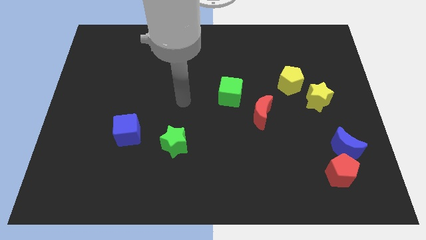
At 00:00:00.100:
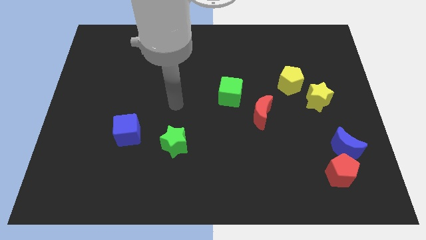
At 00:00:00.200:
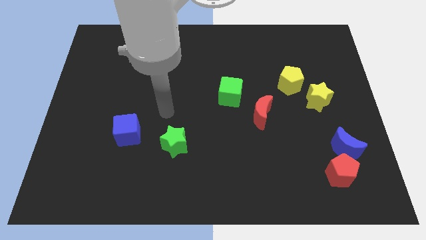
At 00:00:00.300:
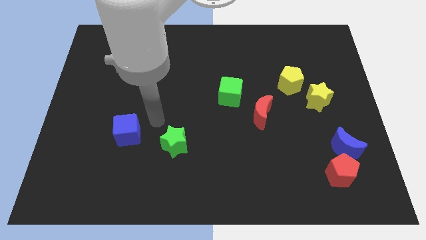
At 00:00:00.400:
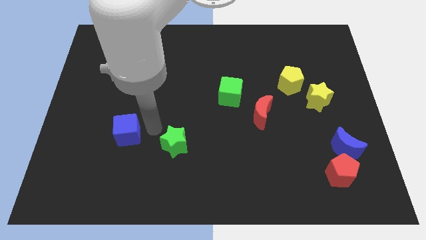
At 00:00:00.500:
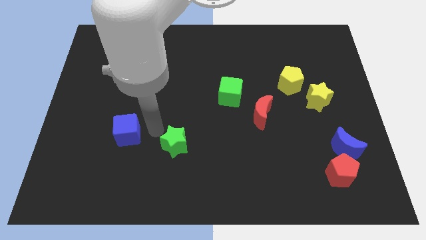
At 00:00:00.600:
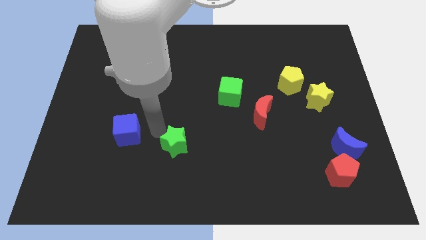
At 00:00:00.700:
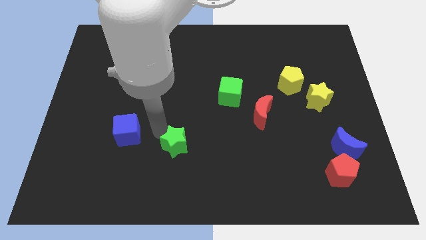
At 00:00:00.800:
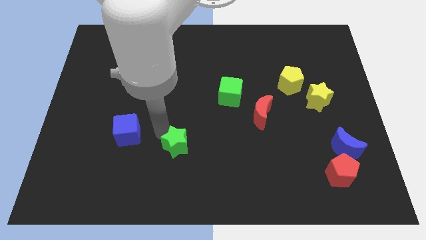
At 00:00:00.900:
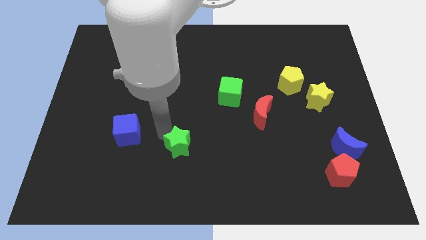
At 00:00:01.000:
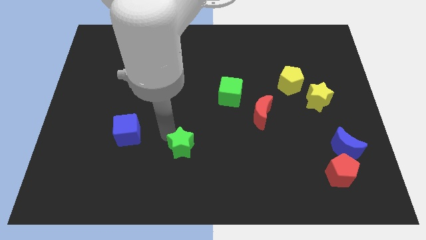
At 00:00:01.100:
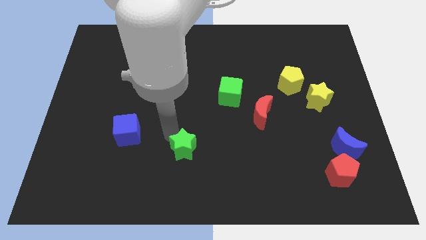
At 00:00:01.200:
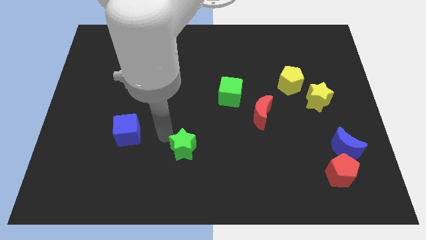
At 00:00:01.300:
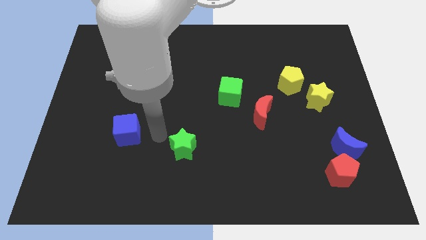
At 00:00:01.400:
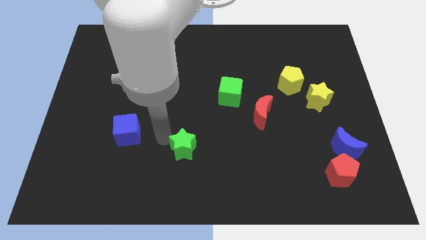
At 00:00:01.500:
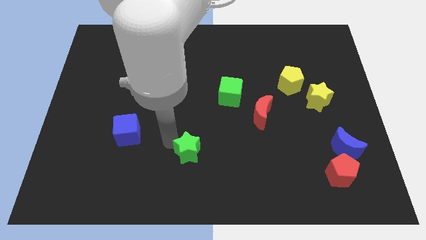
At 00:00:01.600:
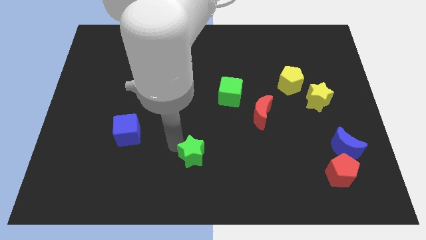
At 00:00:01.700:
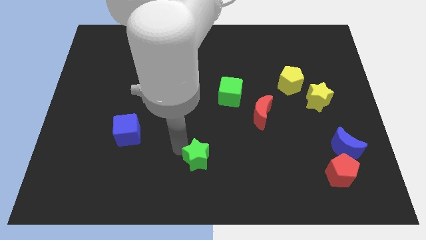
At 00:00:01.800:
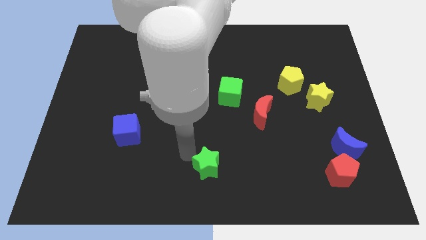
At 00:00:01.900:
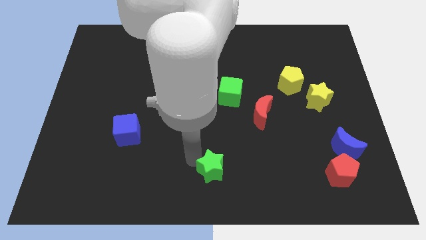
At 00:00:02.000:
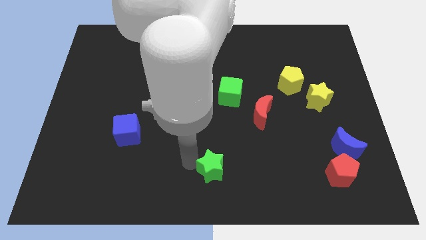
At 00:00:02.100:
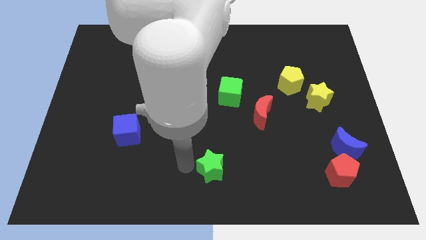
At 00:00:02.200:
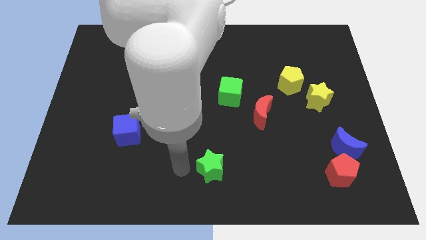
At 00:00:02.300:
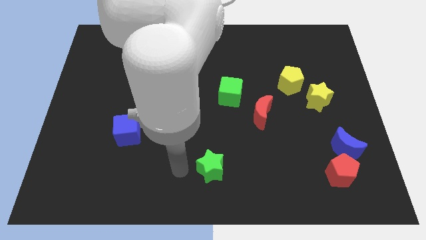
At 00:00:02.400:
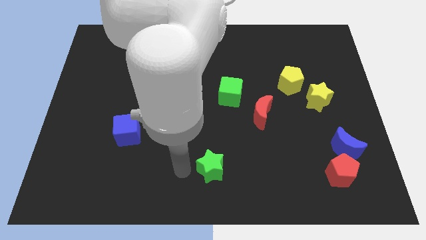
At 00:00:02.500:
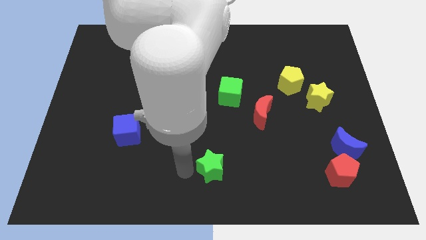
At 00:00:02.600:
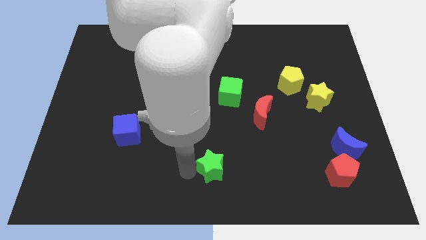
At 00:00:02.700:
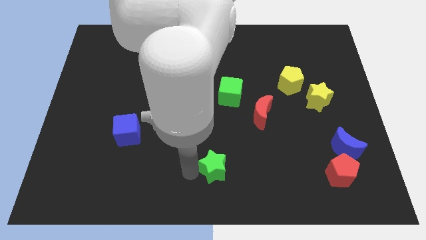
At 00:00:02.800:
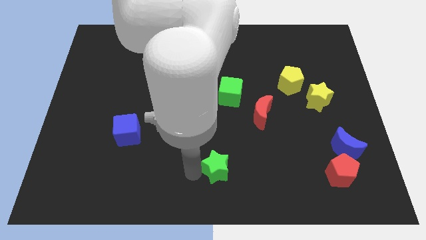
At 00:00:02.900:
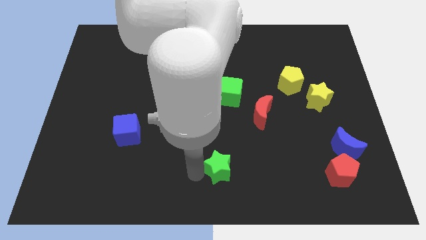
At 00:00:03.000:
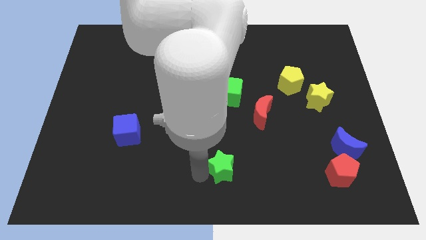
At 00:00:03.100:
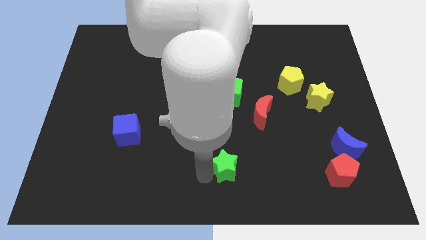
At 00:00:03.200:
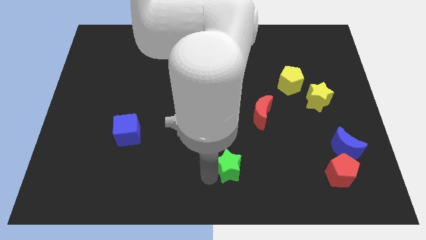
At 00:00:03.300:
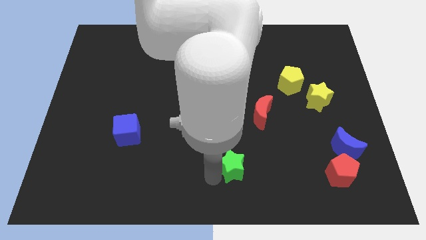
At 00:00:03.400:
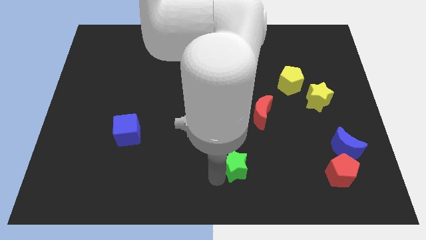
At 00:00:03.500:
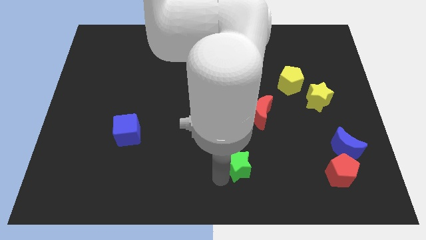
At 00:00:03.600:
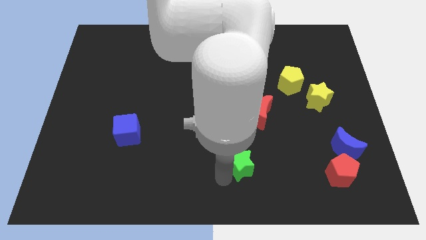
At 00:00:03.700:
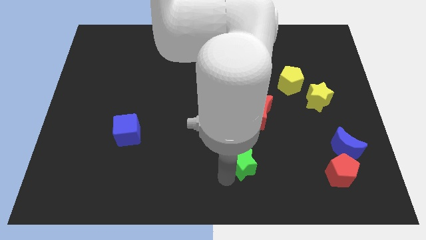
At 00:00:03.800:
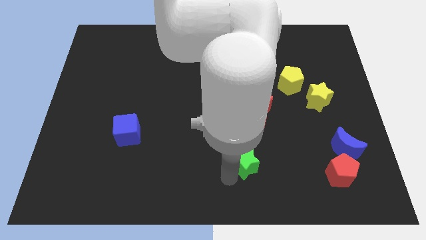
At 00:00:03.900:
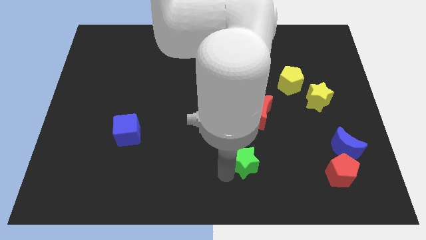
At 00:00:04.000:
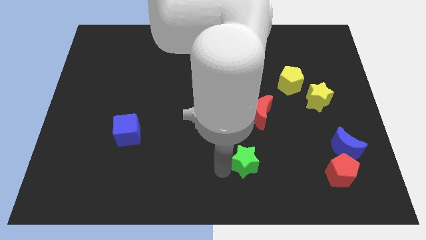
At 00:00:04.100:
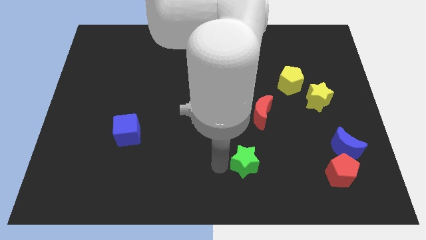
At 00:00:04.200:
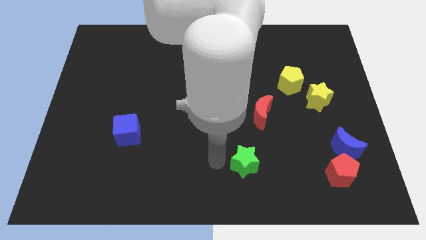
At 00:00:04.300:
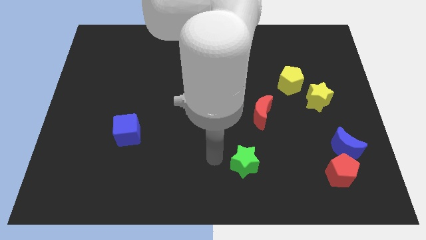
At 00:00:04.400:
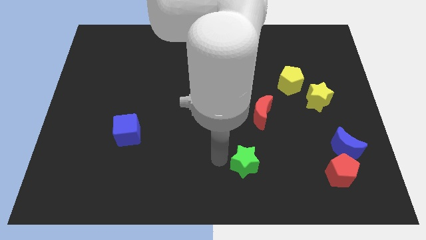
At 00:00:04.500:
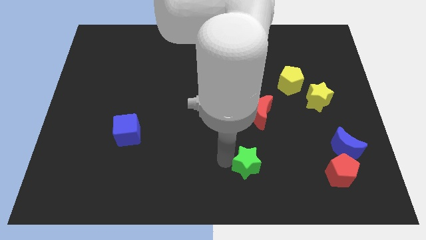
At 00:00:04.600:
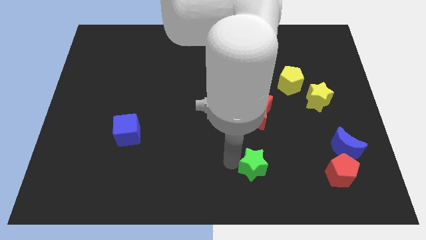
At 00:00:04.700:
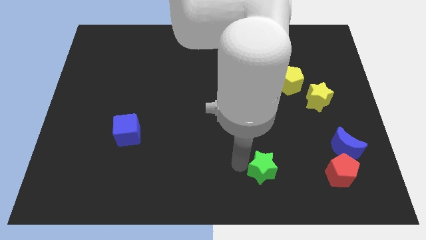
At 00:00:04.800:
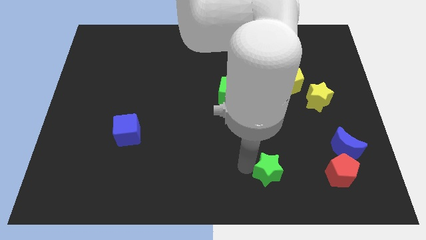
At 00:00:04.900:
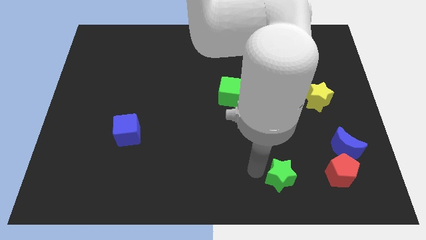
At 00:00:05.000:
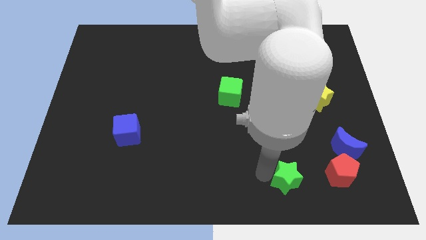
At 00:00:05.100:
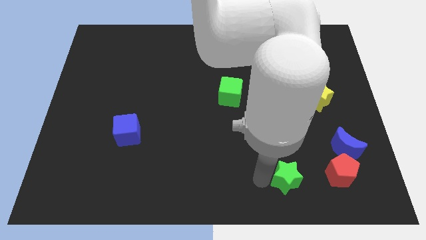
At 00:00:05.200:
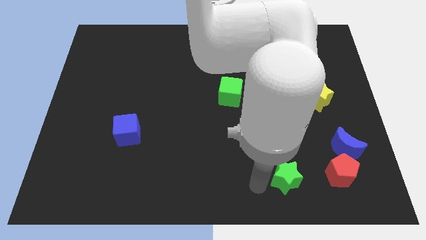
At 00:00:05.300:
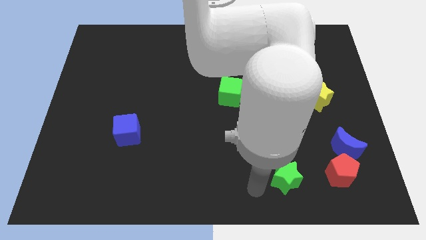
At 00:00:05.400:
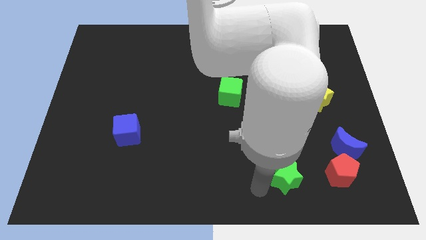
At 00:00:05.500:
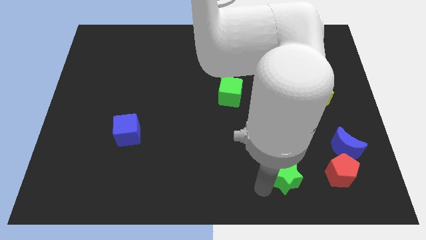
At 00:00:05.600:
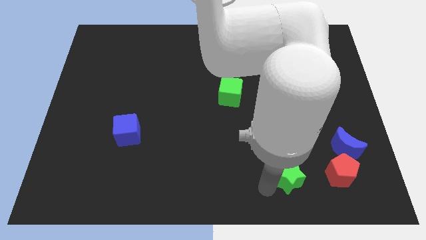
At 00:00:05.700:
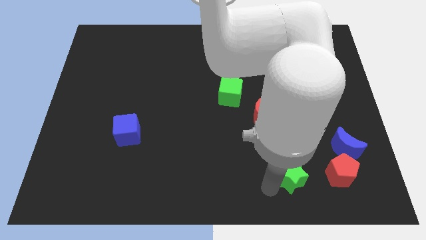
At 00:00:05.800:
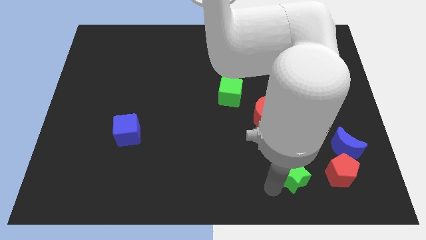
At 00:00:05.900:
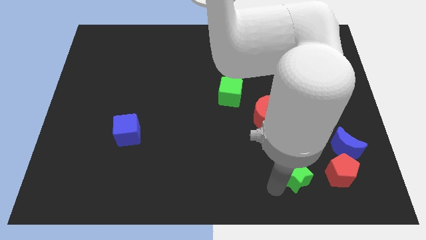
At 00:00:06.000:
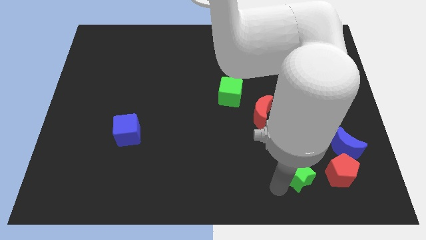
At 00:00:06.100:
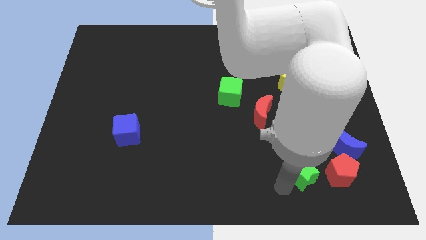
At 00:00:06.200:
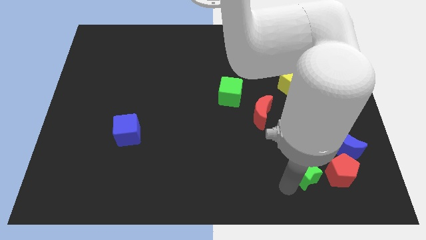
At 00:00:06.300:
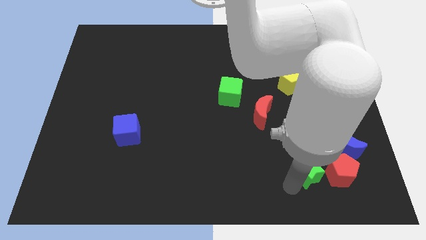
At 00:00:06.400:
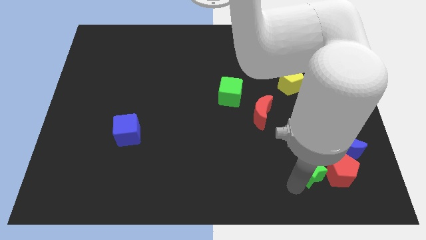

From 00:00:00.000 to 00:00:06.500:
push the green star to the red pentagon

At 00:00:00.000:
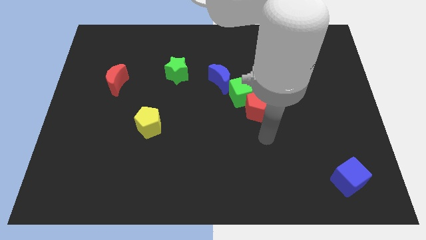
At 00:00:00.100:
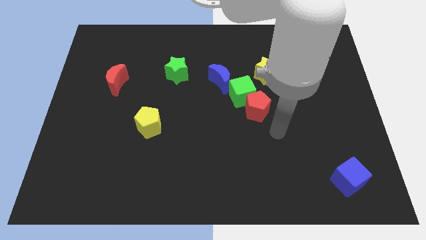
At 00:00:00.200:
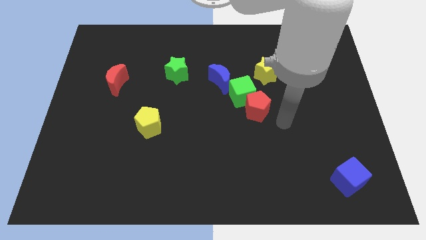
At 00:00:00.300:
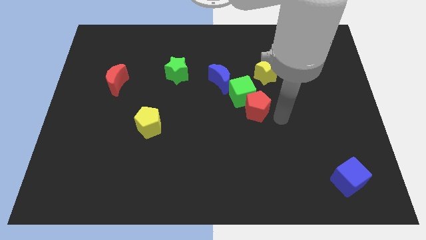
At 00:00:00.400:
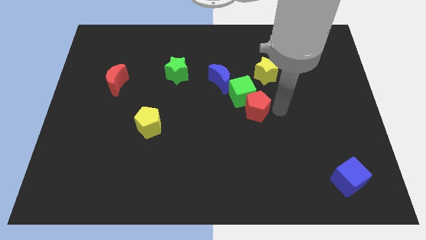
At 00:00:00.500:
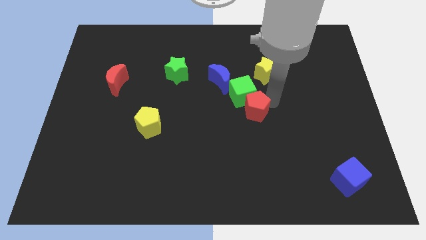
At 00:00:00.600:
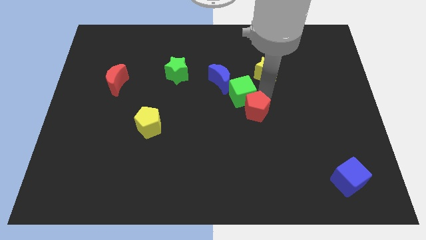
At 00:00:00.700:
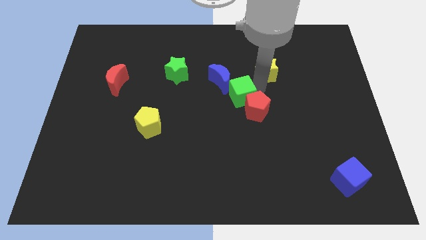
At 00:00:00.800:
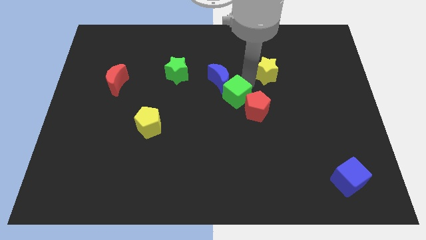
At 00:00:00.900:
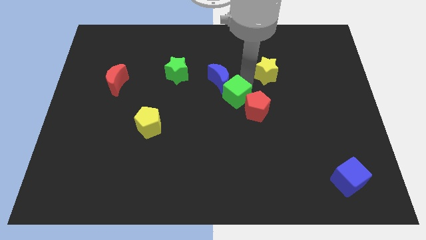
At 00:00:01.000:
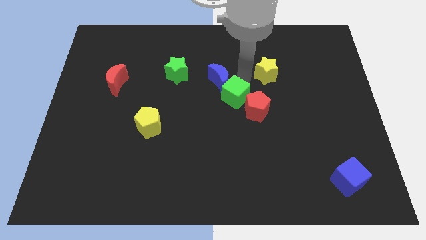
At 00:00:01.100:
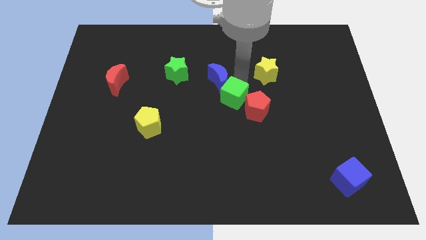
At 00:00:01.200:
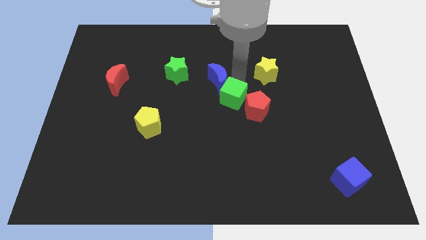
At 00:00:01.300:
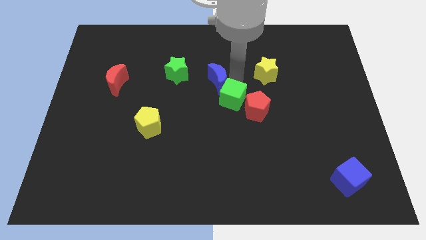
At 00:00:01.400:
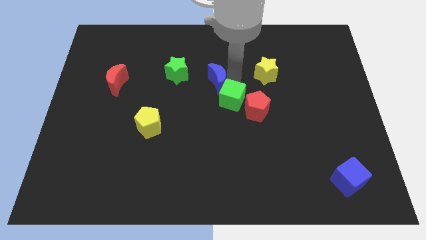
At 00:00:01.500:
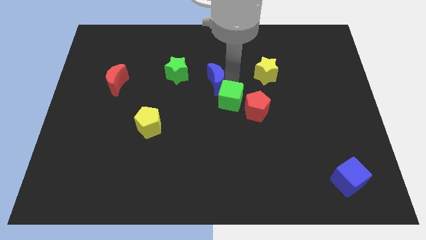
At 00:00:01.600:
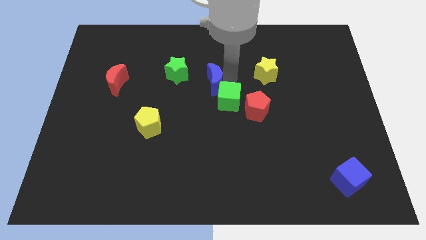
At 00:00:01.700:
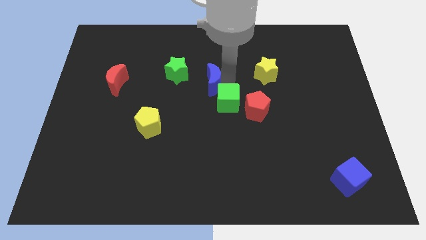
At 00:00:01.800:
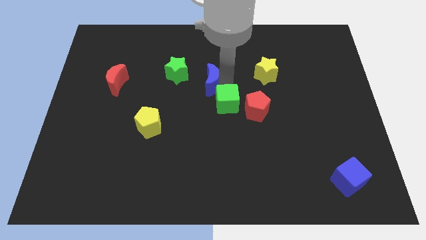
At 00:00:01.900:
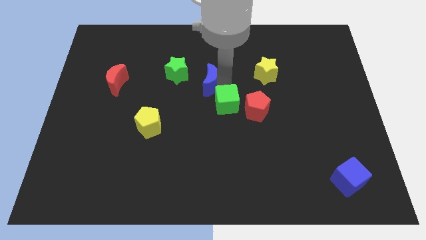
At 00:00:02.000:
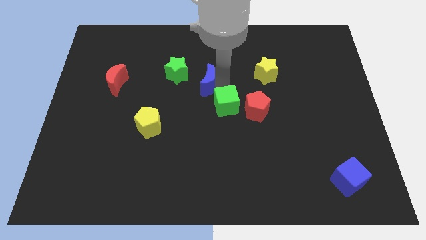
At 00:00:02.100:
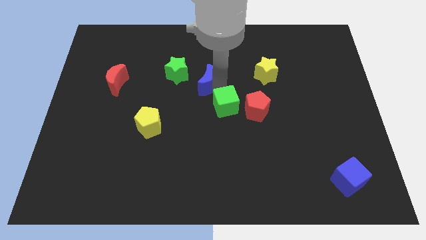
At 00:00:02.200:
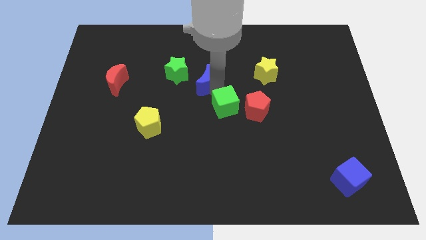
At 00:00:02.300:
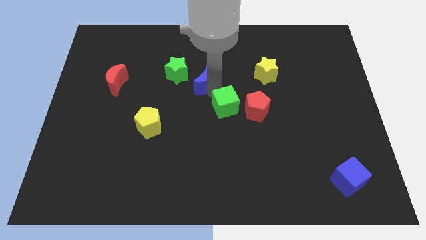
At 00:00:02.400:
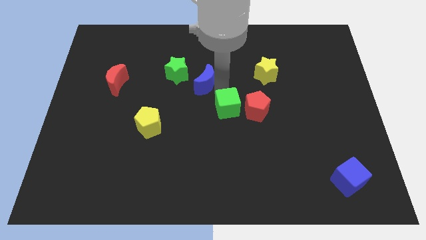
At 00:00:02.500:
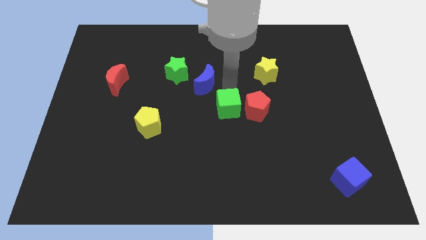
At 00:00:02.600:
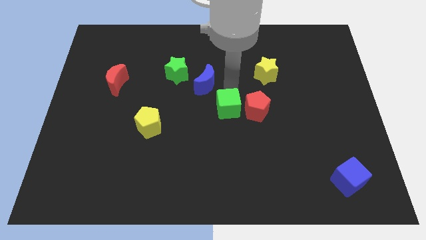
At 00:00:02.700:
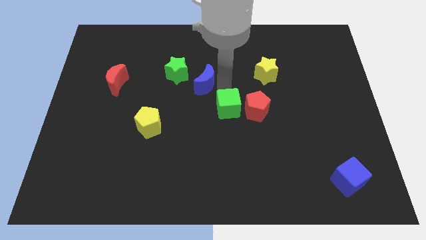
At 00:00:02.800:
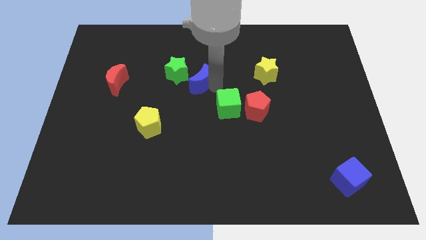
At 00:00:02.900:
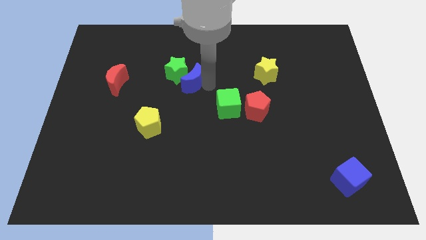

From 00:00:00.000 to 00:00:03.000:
put the blue moon close to the green star
